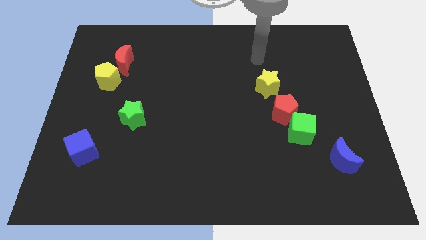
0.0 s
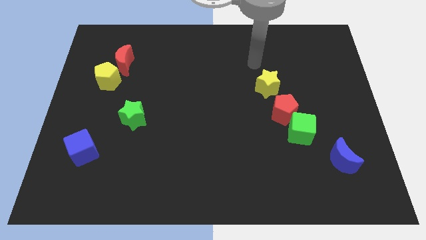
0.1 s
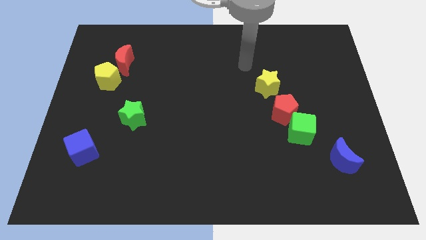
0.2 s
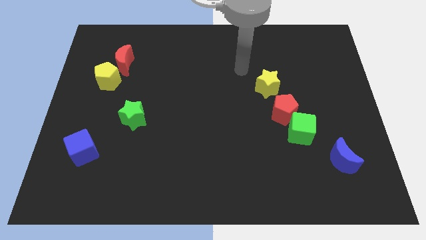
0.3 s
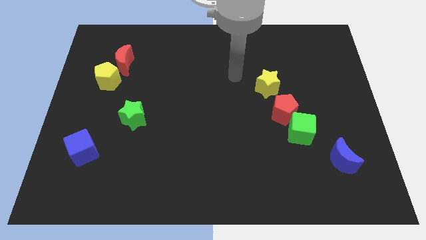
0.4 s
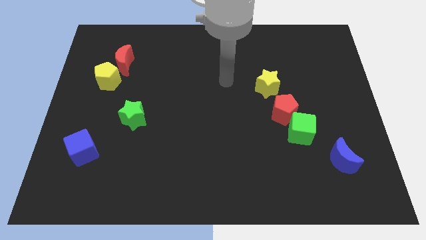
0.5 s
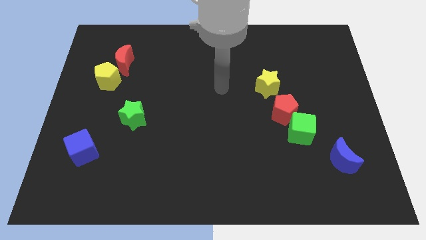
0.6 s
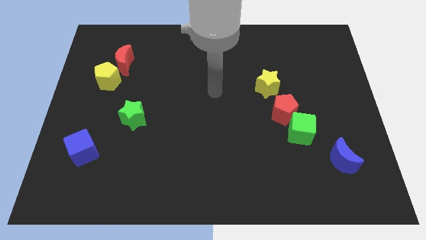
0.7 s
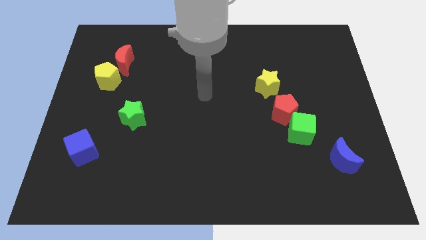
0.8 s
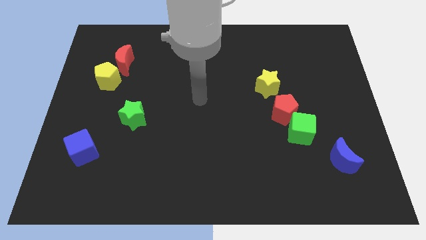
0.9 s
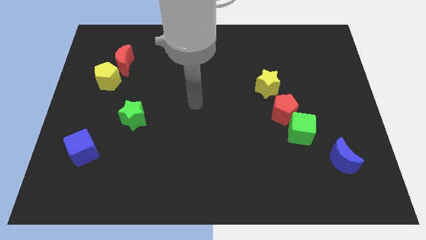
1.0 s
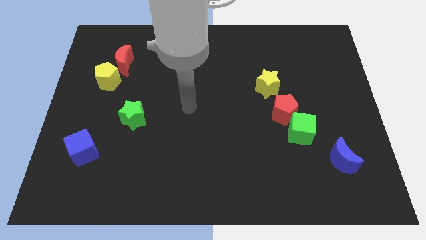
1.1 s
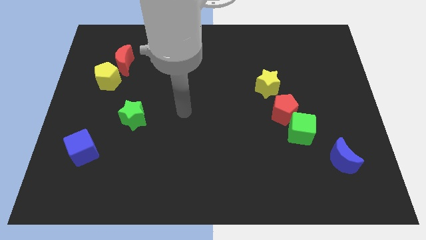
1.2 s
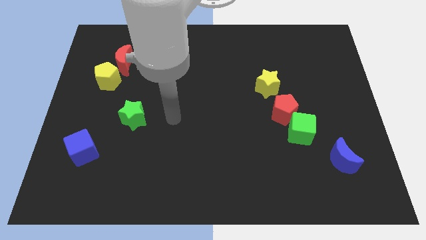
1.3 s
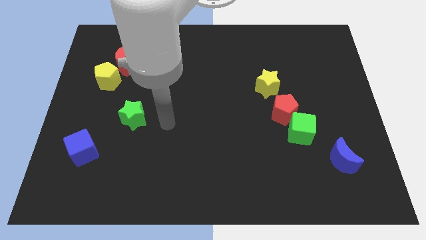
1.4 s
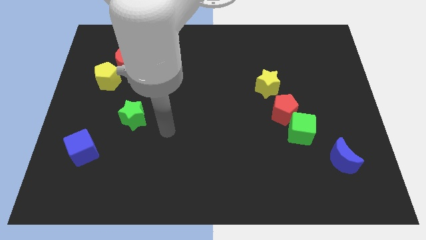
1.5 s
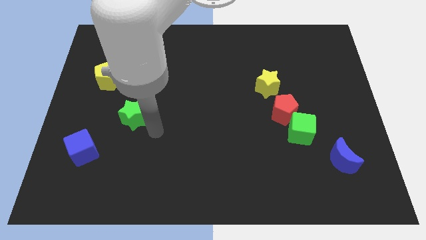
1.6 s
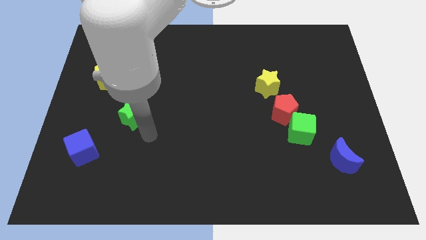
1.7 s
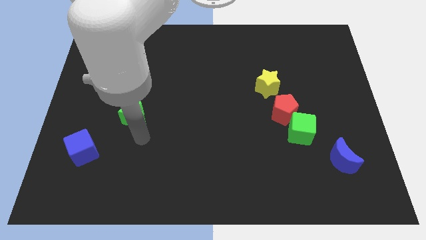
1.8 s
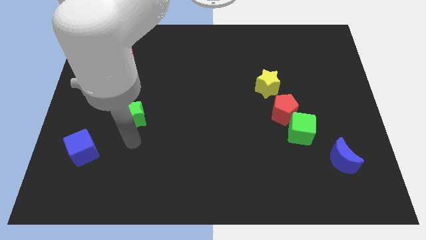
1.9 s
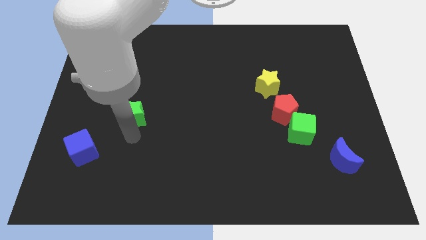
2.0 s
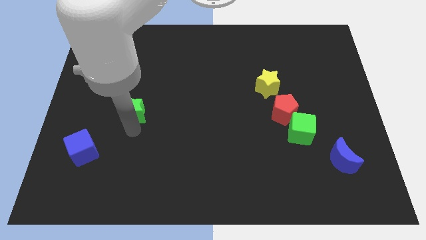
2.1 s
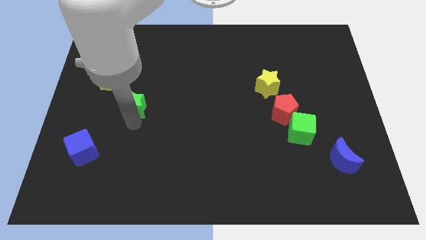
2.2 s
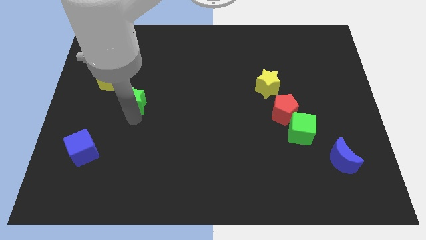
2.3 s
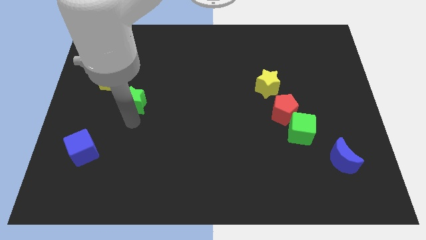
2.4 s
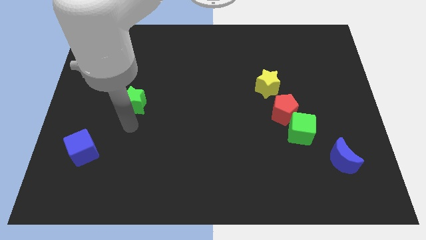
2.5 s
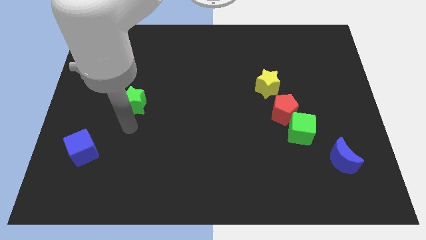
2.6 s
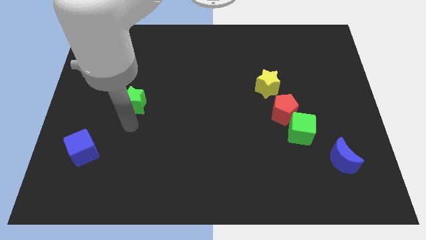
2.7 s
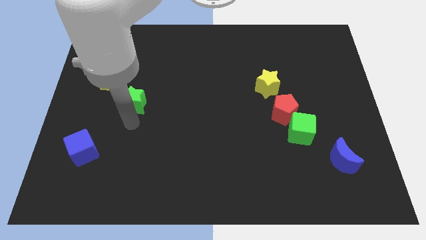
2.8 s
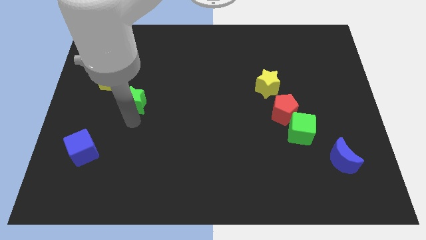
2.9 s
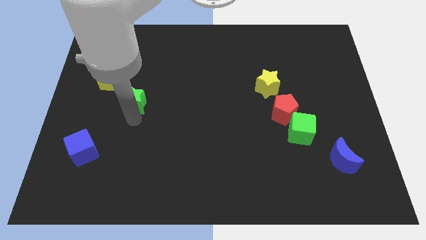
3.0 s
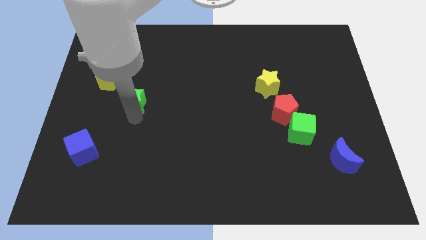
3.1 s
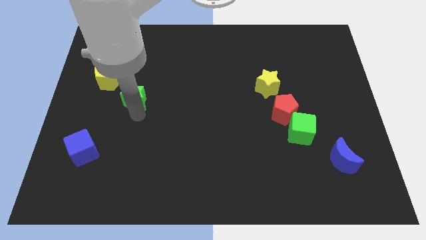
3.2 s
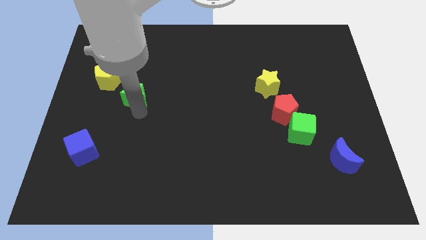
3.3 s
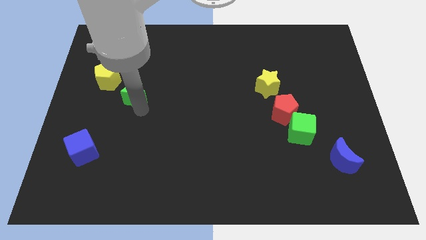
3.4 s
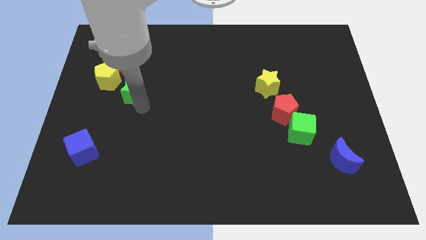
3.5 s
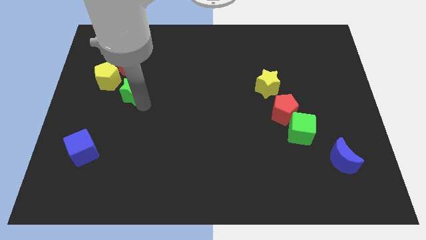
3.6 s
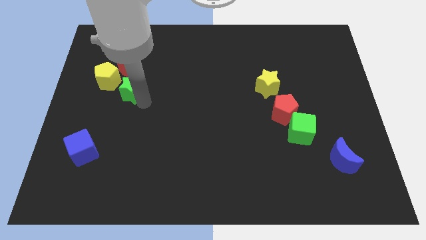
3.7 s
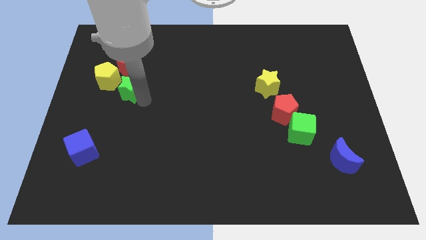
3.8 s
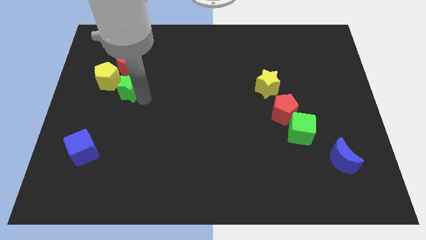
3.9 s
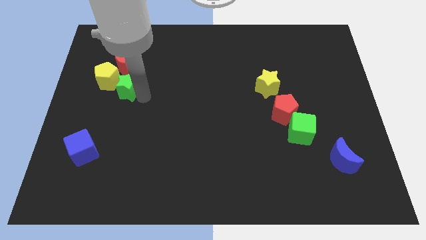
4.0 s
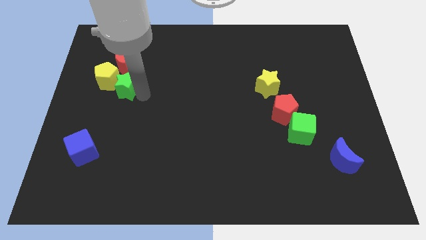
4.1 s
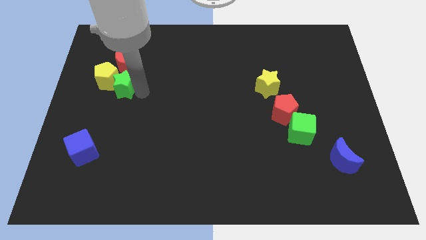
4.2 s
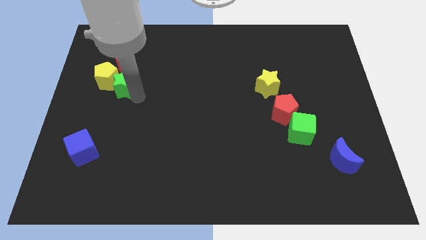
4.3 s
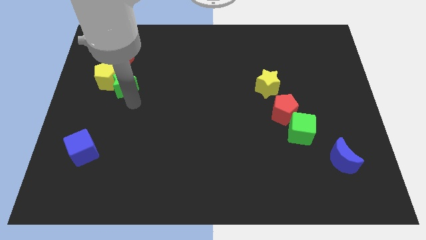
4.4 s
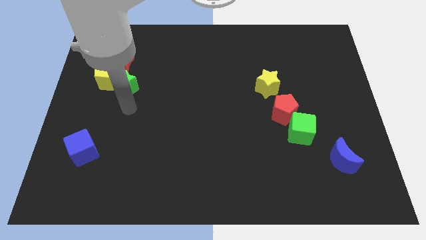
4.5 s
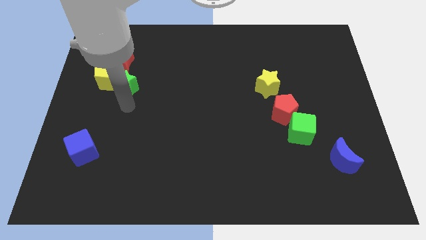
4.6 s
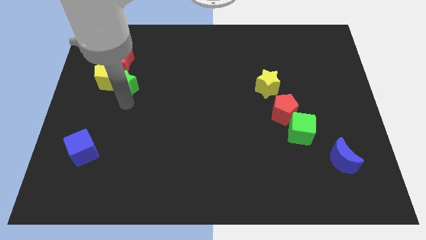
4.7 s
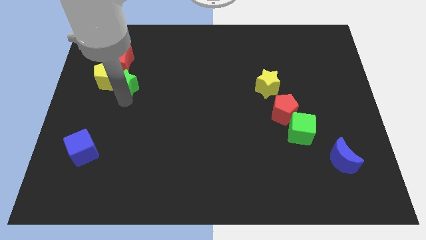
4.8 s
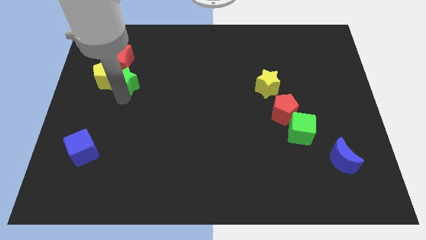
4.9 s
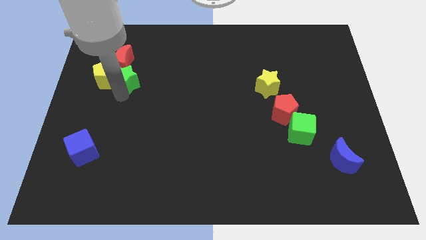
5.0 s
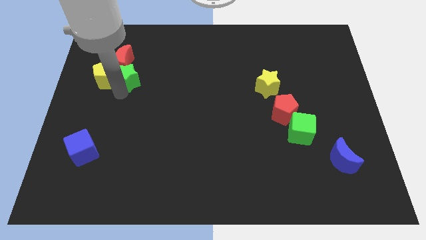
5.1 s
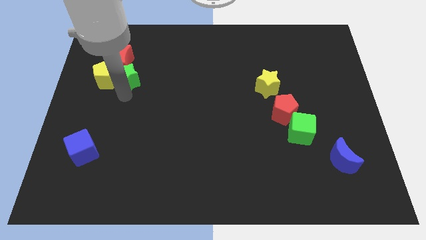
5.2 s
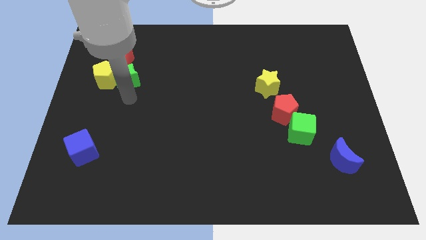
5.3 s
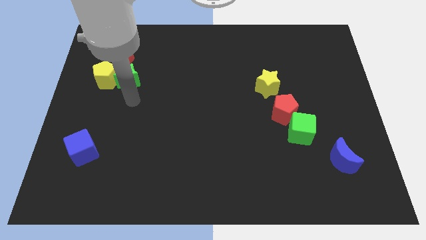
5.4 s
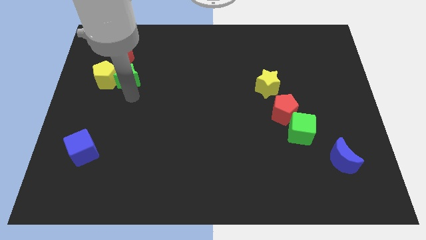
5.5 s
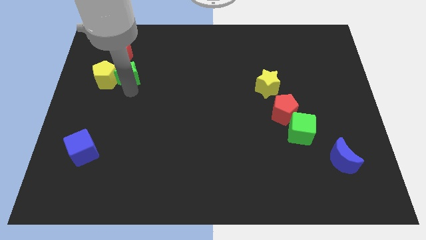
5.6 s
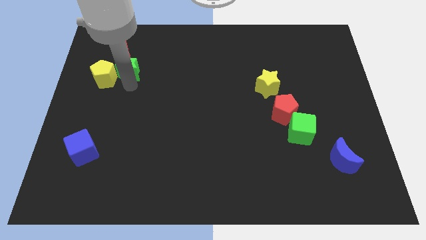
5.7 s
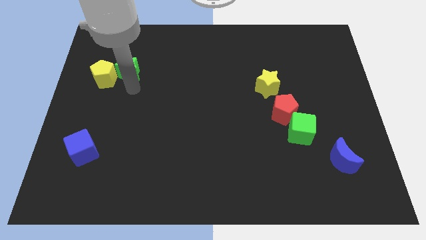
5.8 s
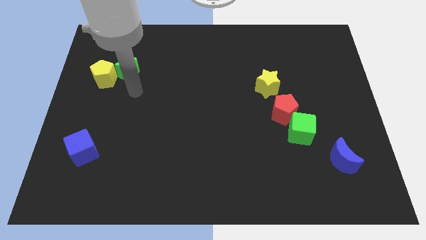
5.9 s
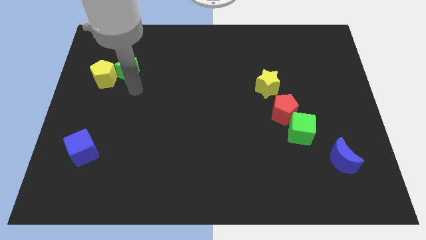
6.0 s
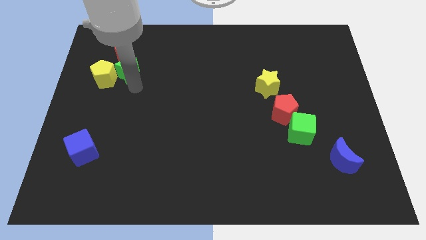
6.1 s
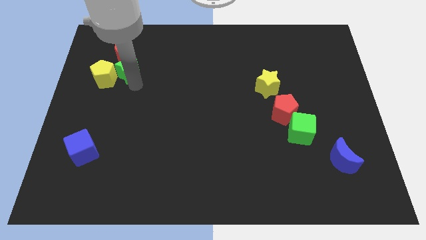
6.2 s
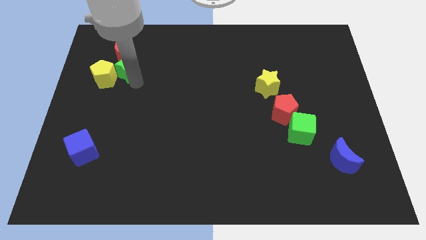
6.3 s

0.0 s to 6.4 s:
push the green star next to the red moon

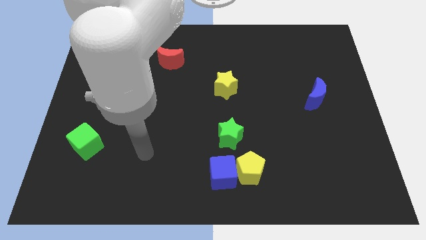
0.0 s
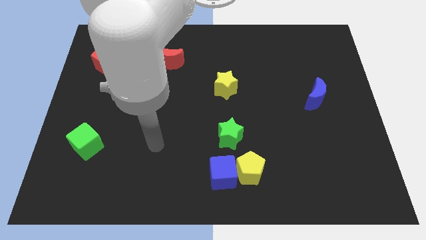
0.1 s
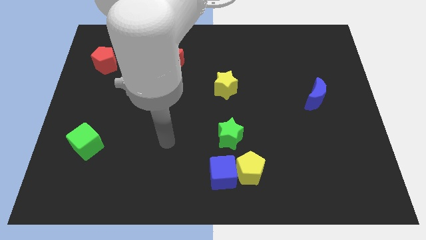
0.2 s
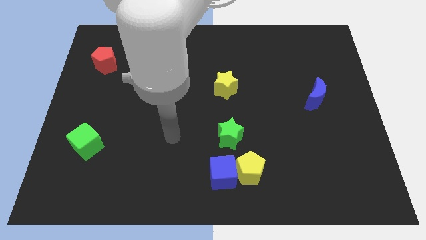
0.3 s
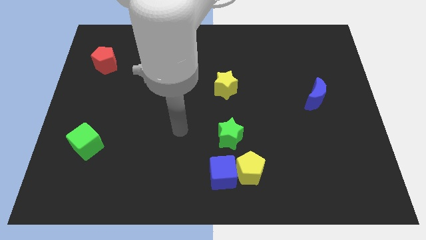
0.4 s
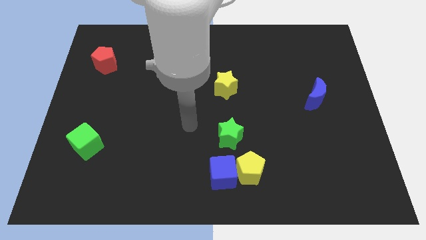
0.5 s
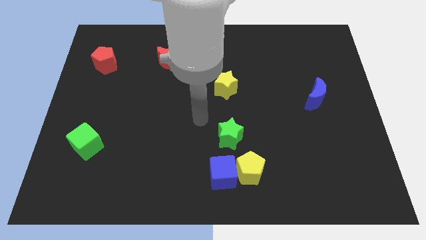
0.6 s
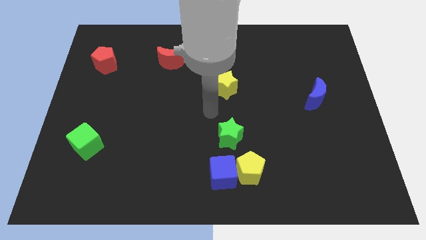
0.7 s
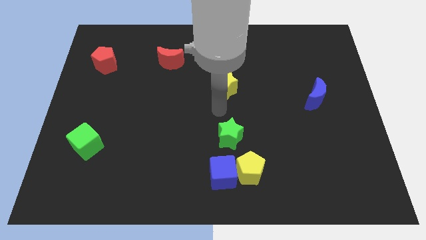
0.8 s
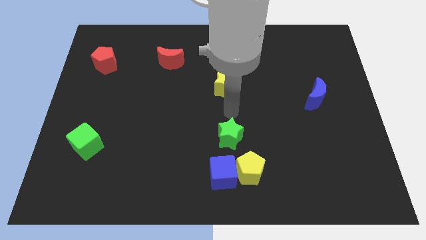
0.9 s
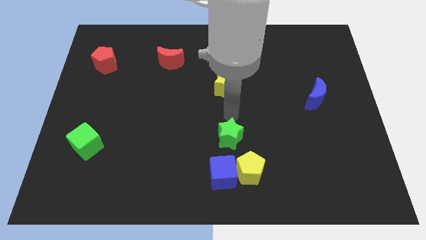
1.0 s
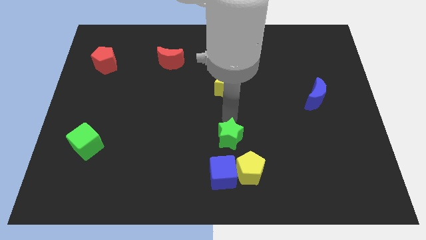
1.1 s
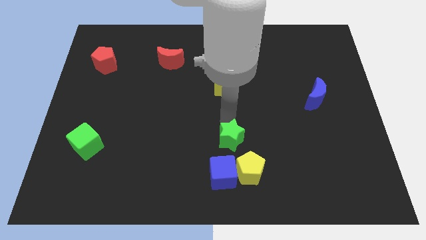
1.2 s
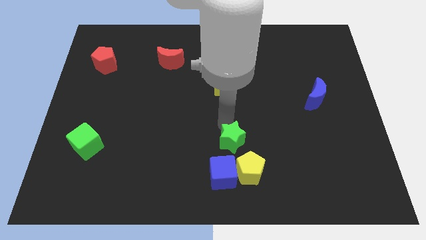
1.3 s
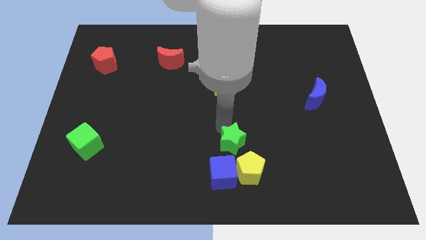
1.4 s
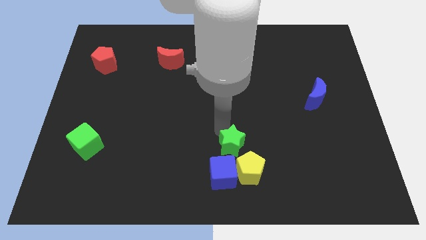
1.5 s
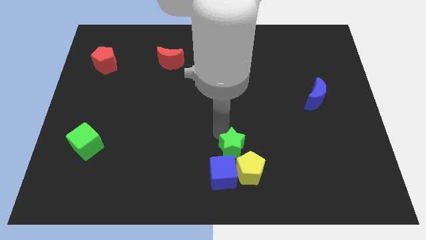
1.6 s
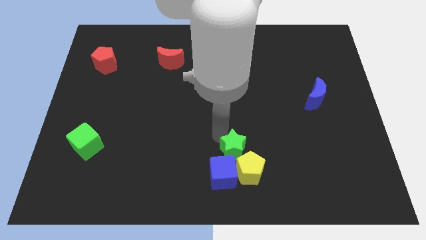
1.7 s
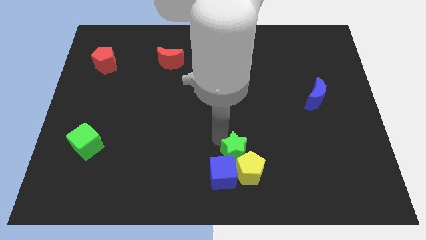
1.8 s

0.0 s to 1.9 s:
push the green star close to the blue cube
